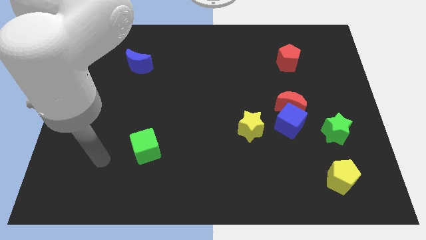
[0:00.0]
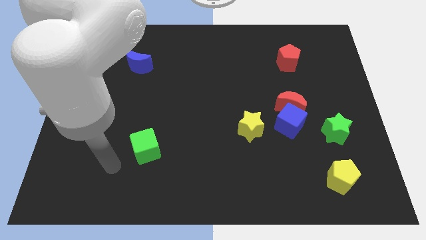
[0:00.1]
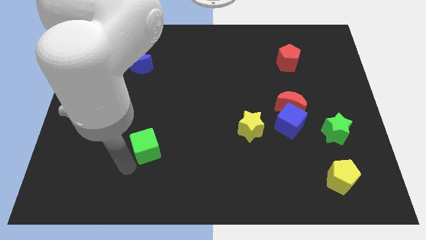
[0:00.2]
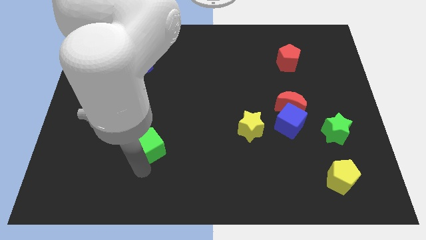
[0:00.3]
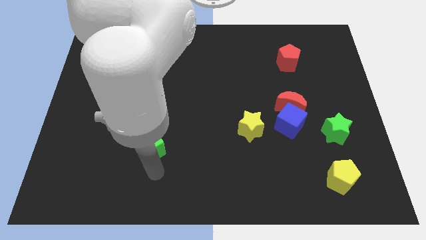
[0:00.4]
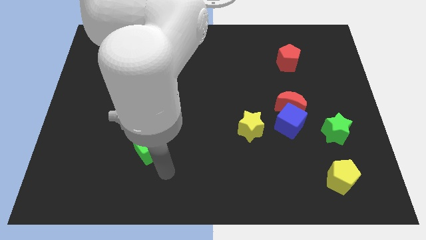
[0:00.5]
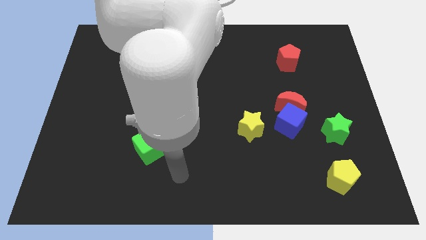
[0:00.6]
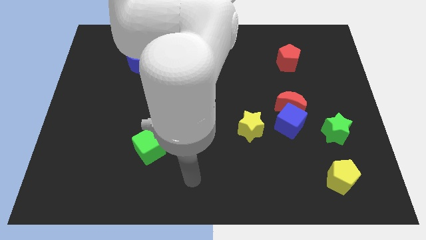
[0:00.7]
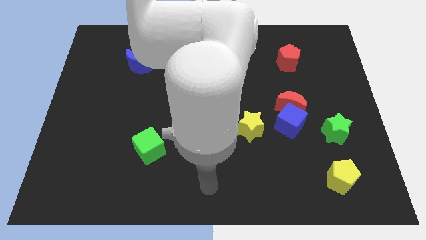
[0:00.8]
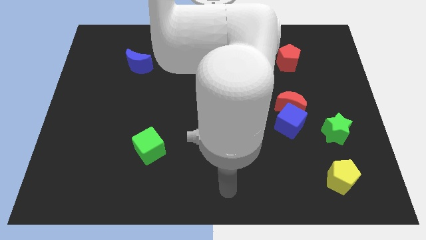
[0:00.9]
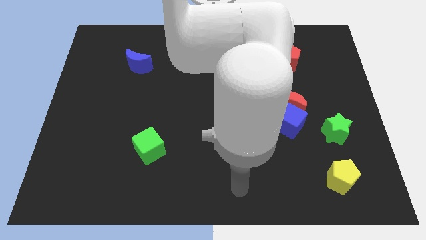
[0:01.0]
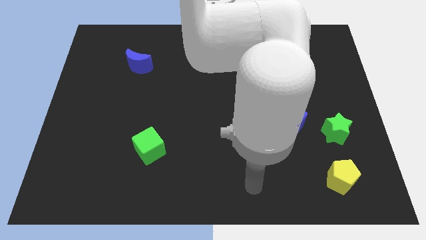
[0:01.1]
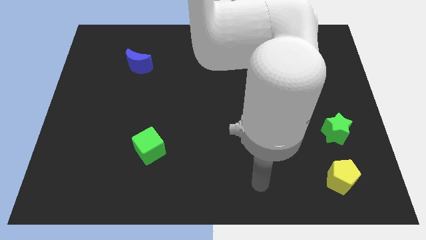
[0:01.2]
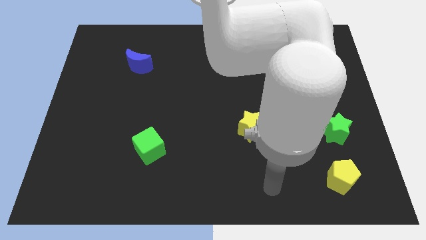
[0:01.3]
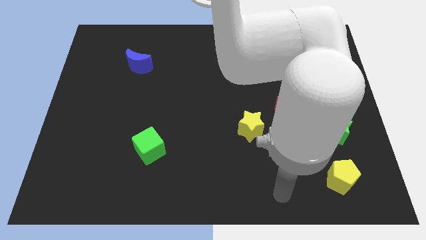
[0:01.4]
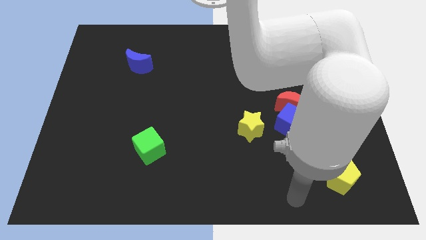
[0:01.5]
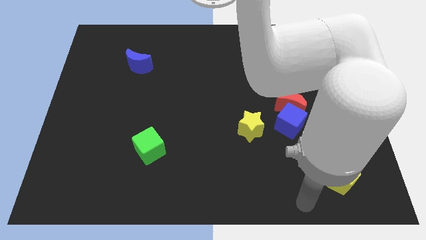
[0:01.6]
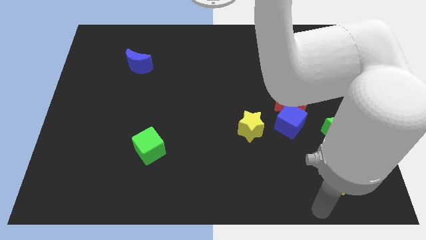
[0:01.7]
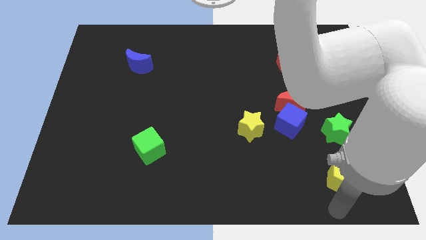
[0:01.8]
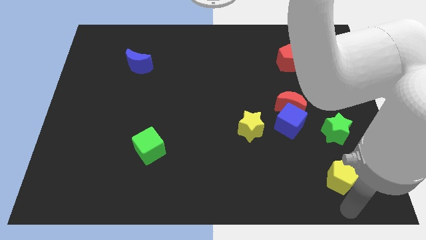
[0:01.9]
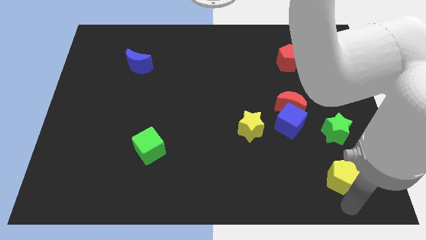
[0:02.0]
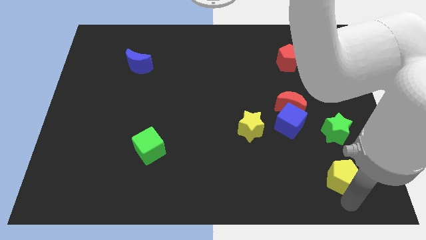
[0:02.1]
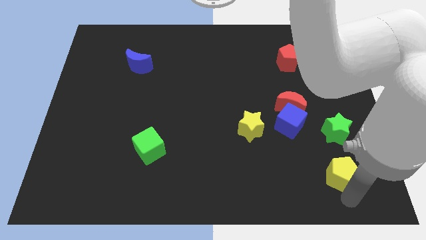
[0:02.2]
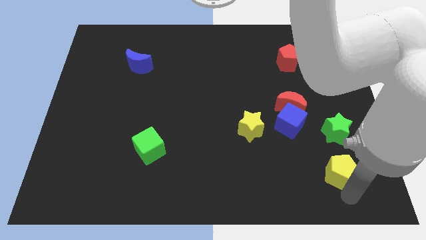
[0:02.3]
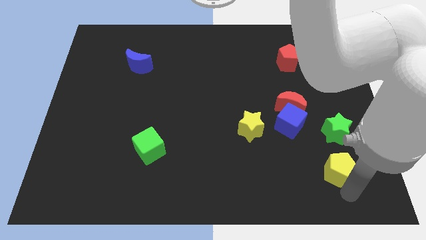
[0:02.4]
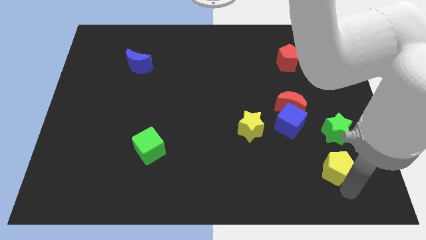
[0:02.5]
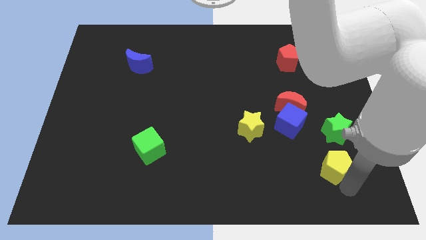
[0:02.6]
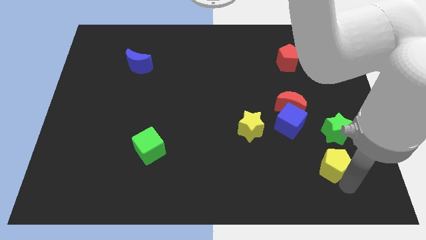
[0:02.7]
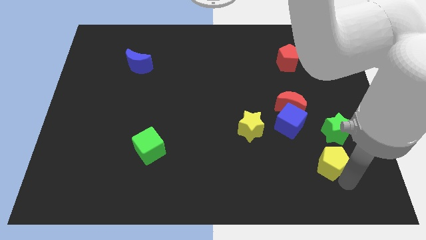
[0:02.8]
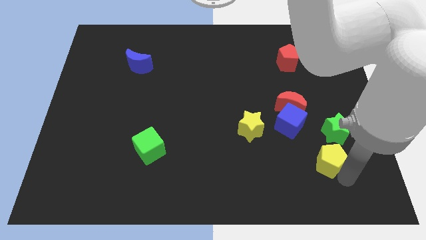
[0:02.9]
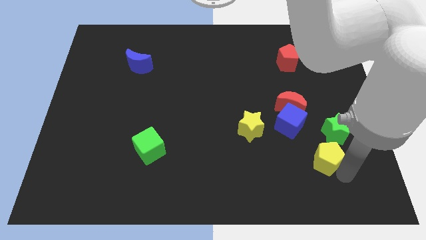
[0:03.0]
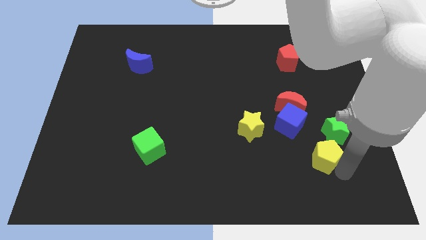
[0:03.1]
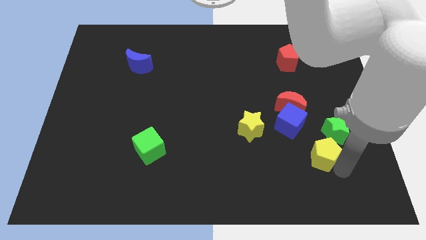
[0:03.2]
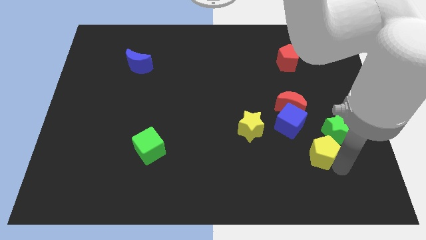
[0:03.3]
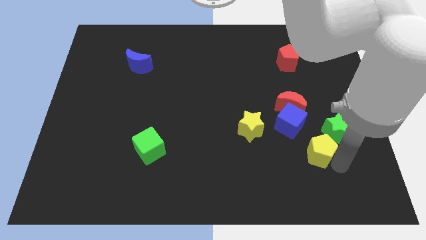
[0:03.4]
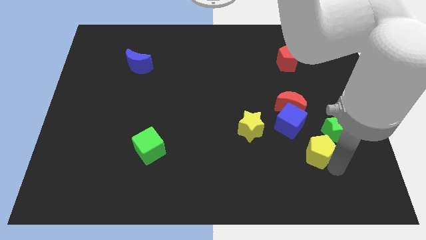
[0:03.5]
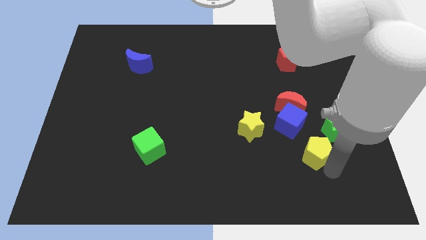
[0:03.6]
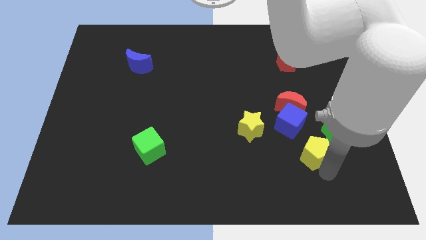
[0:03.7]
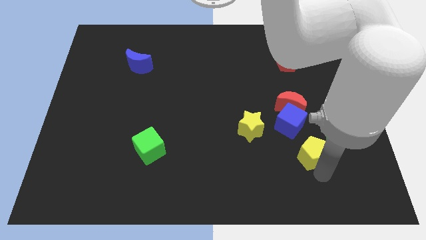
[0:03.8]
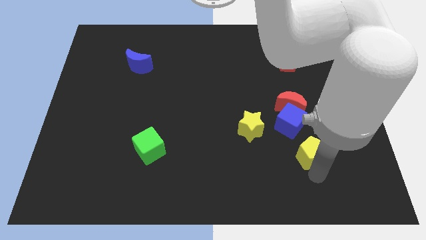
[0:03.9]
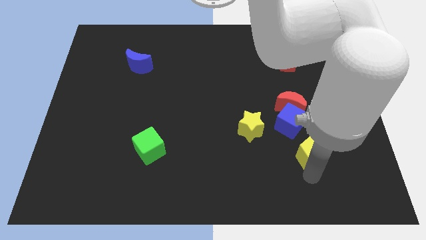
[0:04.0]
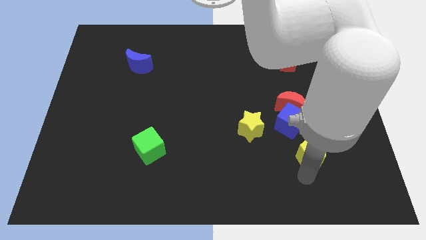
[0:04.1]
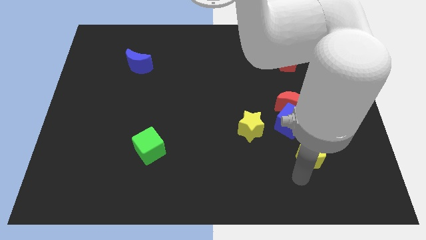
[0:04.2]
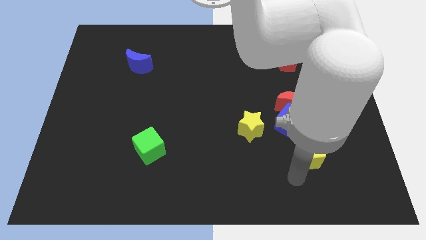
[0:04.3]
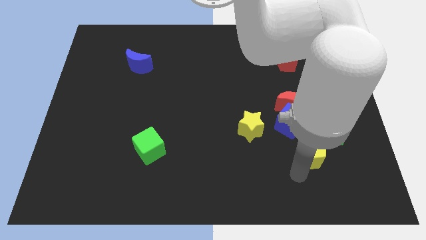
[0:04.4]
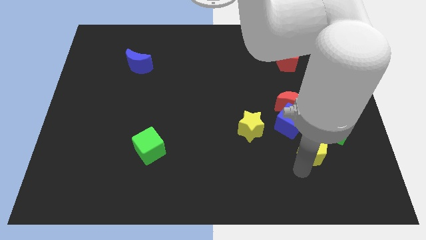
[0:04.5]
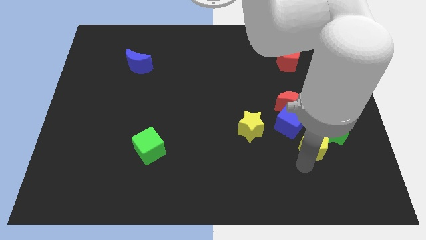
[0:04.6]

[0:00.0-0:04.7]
push the yellow pentagon upwards slightly

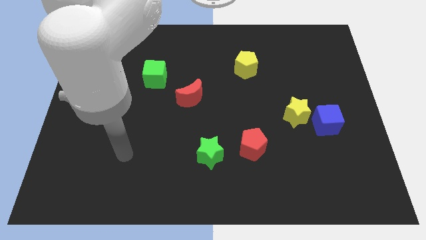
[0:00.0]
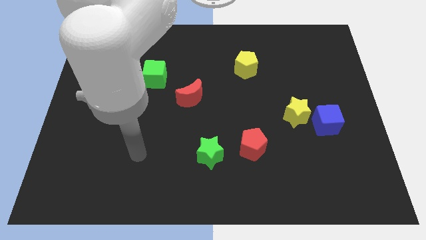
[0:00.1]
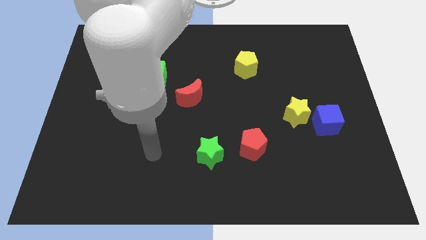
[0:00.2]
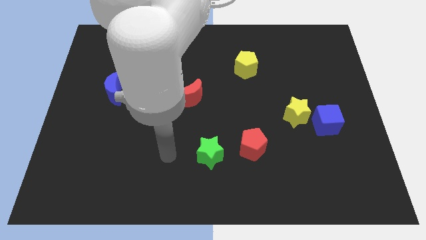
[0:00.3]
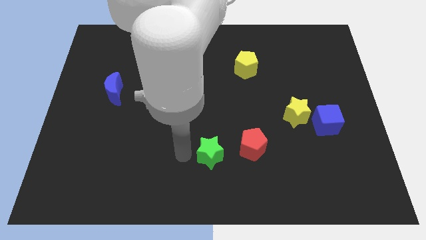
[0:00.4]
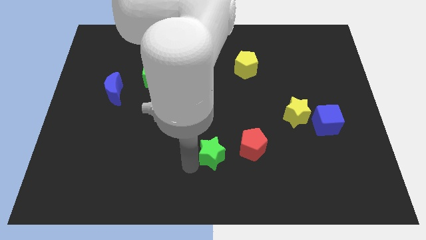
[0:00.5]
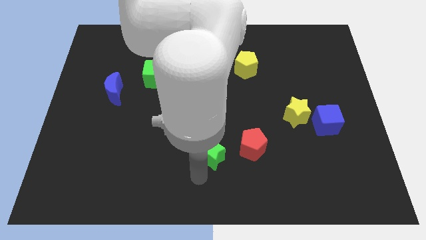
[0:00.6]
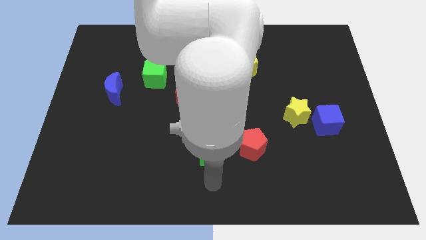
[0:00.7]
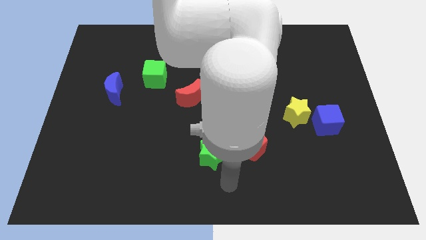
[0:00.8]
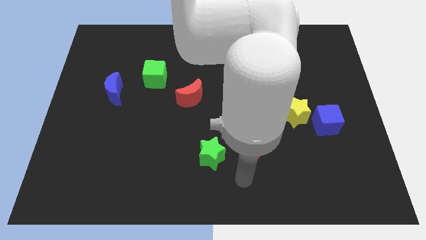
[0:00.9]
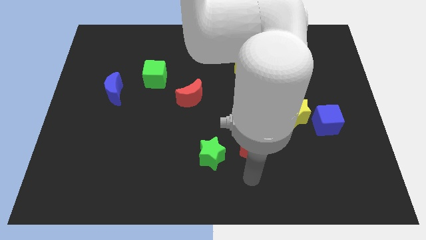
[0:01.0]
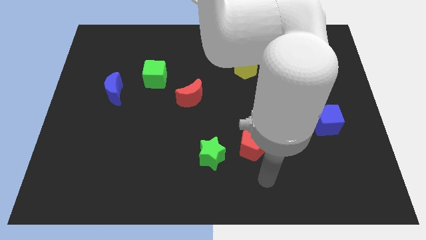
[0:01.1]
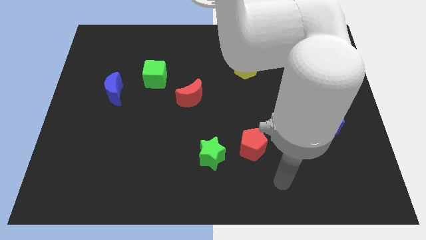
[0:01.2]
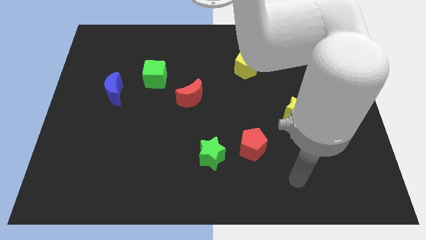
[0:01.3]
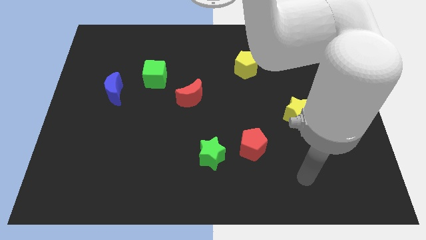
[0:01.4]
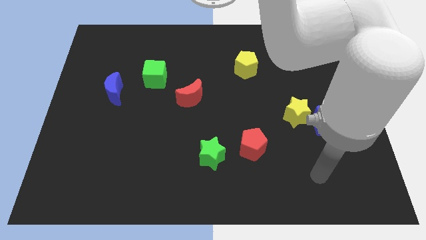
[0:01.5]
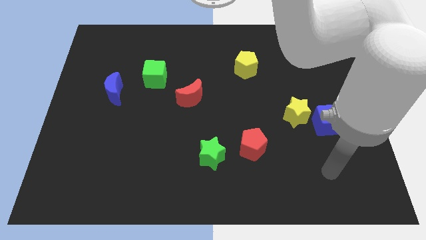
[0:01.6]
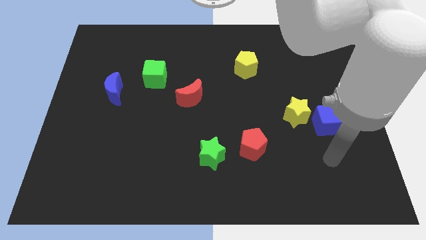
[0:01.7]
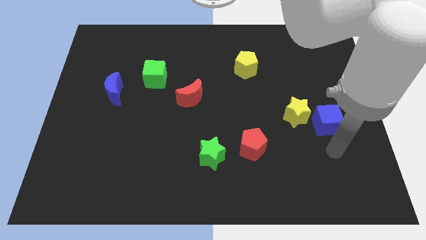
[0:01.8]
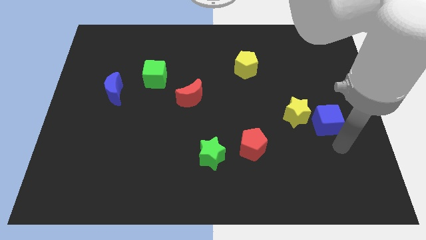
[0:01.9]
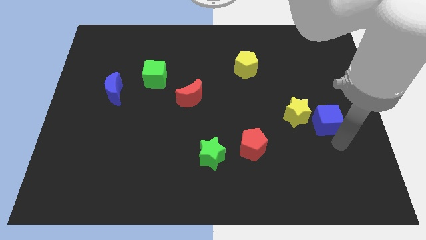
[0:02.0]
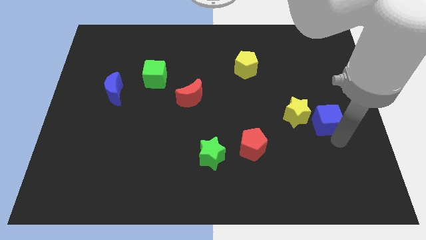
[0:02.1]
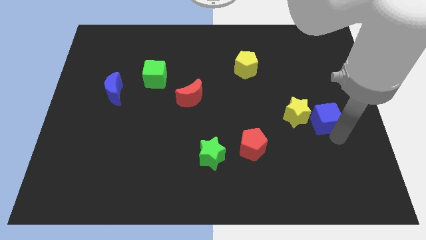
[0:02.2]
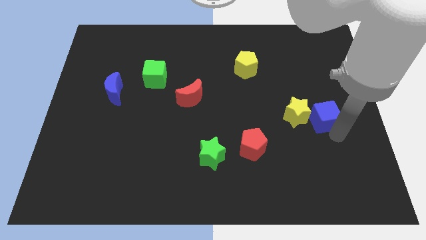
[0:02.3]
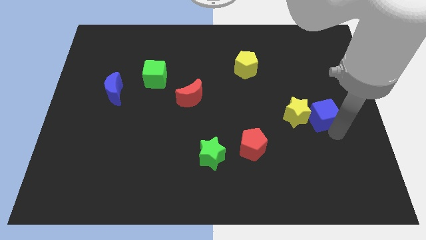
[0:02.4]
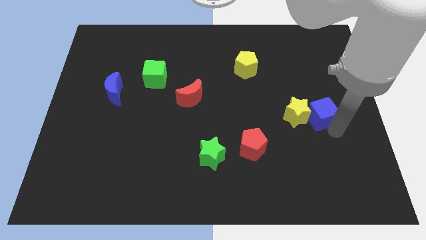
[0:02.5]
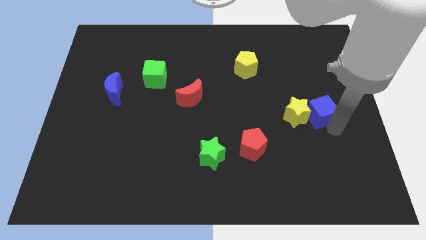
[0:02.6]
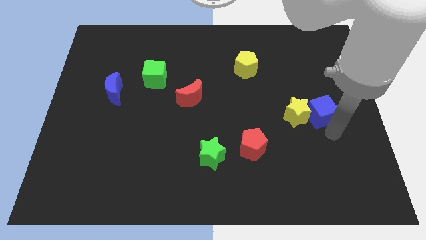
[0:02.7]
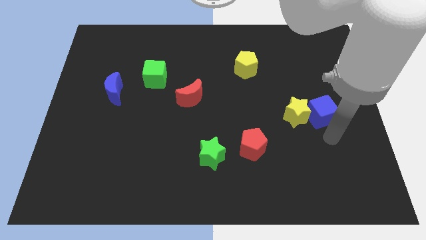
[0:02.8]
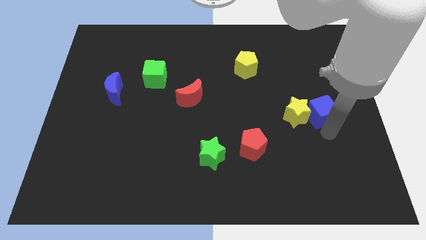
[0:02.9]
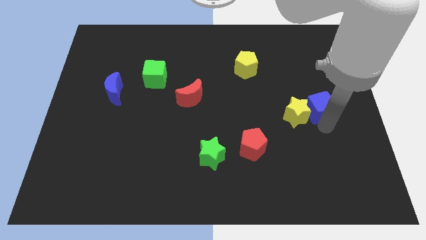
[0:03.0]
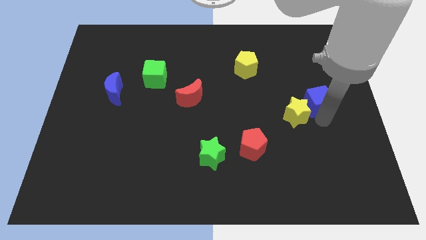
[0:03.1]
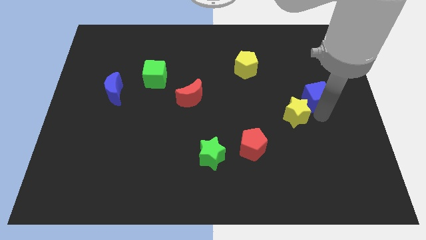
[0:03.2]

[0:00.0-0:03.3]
move the blue cube upwards a little
